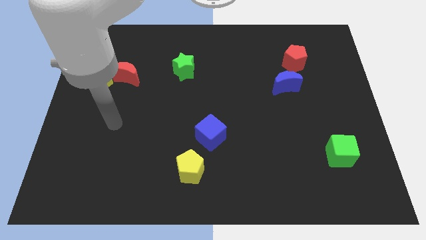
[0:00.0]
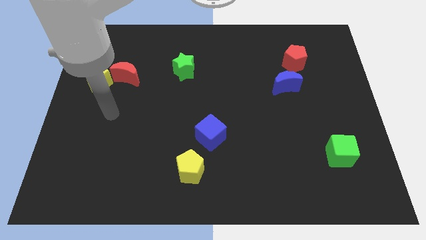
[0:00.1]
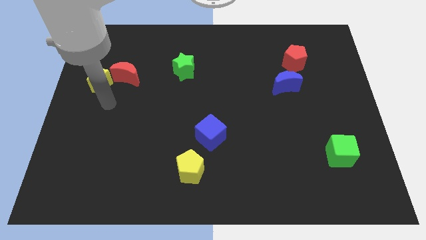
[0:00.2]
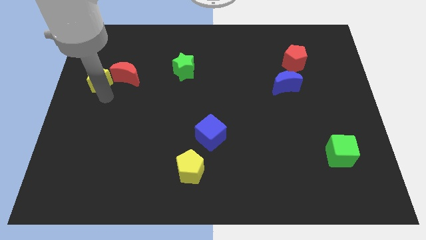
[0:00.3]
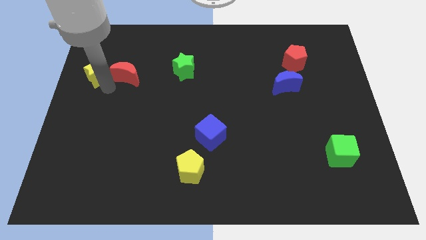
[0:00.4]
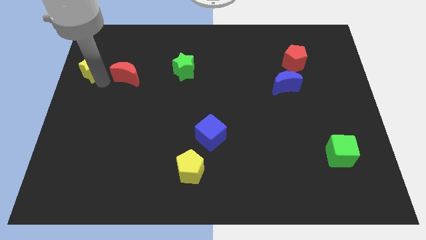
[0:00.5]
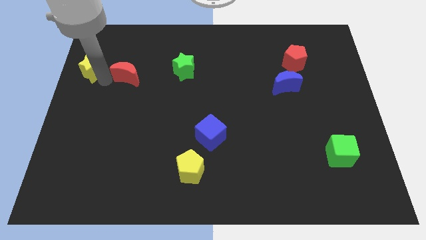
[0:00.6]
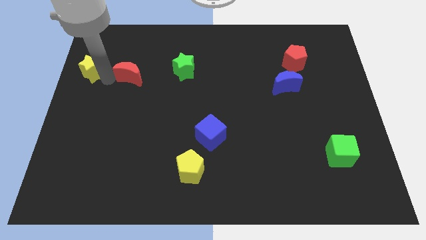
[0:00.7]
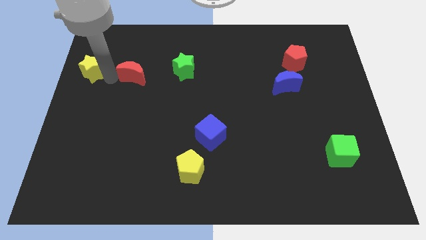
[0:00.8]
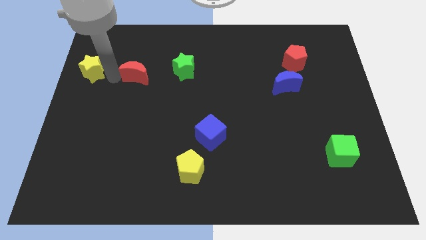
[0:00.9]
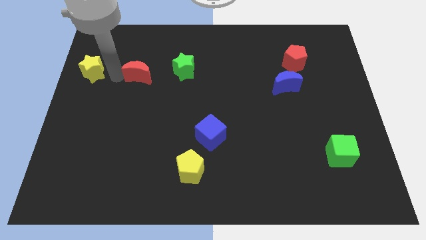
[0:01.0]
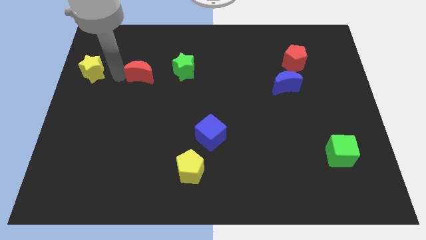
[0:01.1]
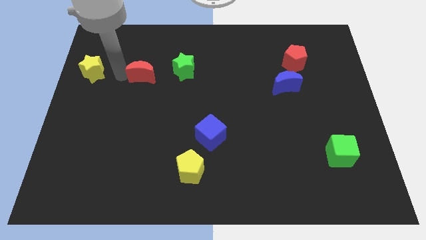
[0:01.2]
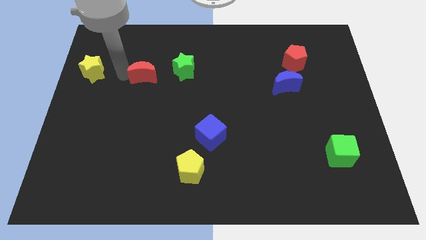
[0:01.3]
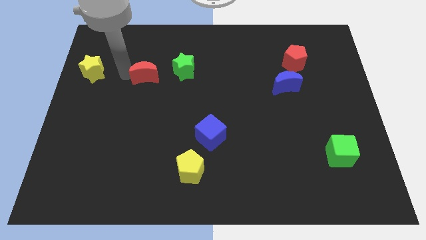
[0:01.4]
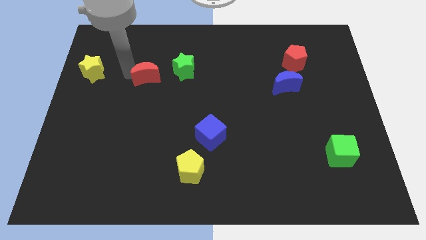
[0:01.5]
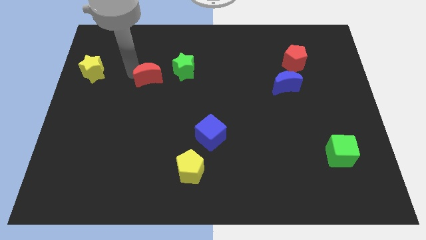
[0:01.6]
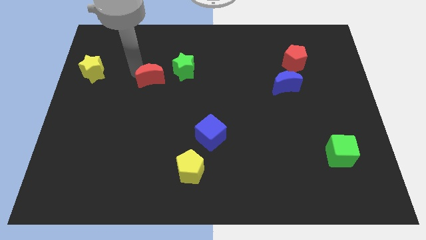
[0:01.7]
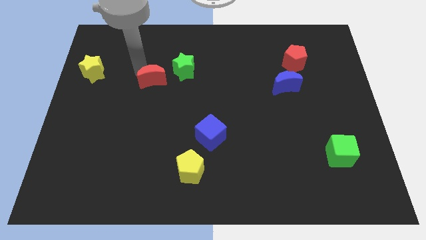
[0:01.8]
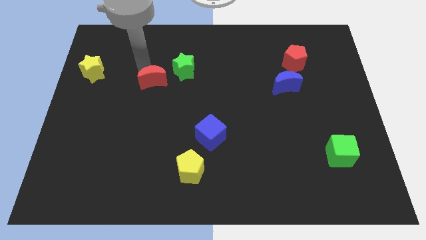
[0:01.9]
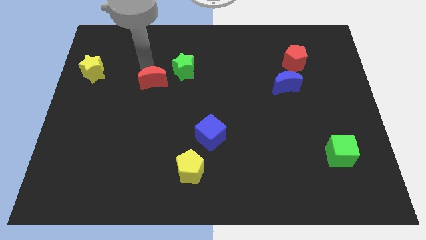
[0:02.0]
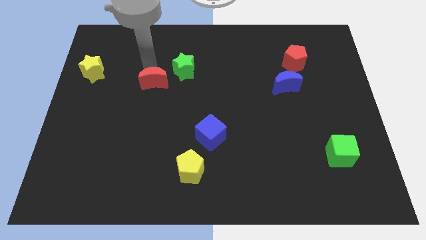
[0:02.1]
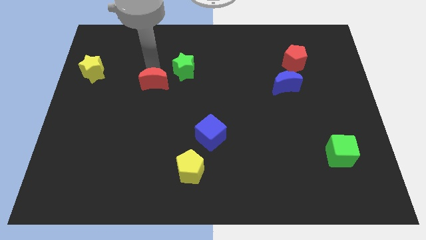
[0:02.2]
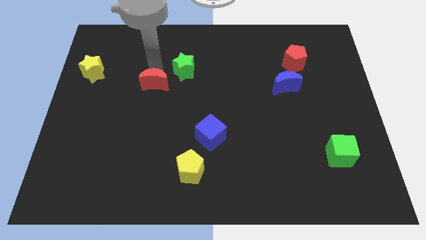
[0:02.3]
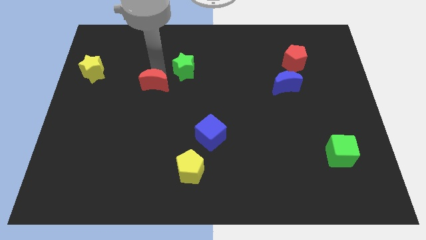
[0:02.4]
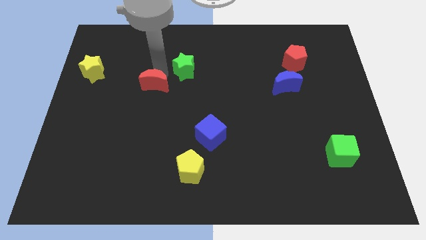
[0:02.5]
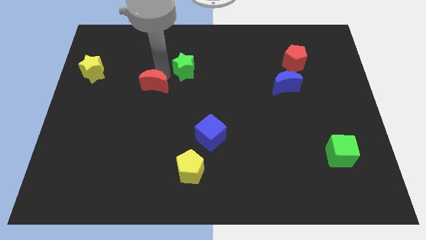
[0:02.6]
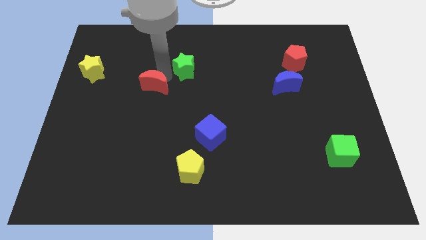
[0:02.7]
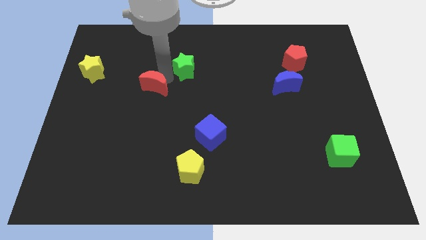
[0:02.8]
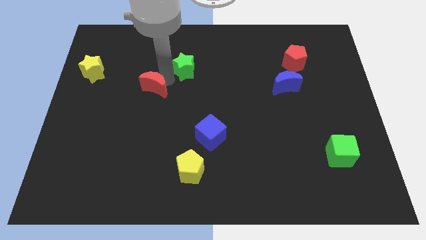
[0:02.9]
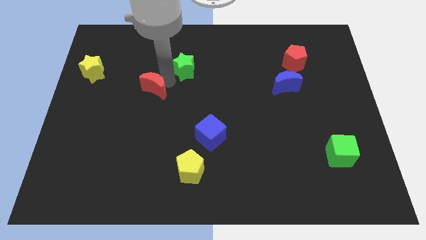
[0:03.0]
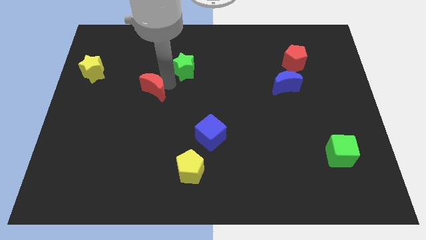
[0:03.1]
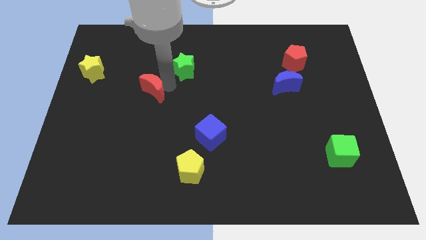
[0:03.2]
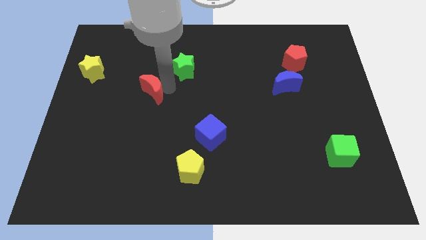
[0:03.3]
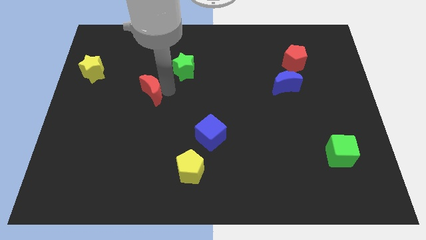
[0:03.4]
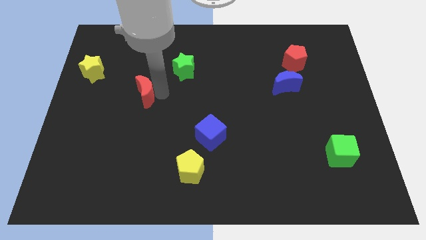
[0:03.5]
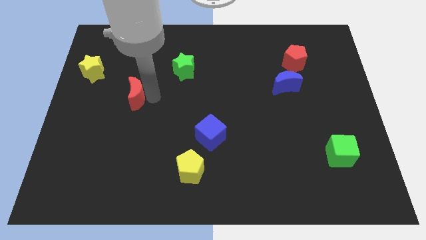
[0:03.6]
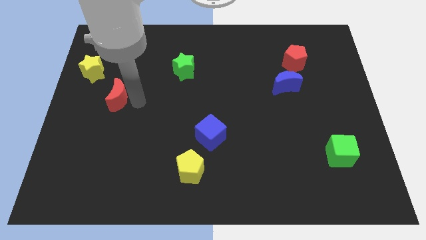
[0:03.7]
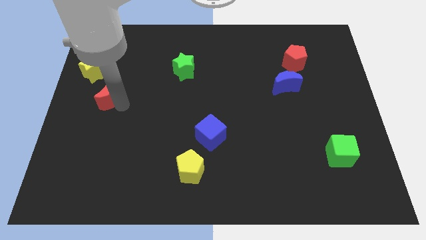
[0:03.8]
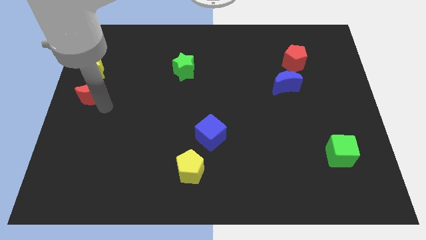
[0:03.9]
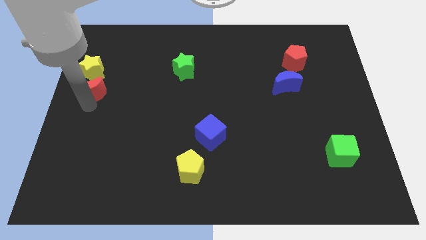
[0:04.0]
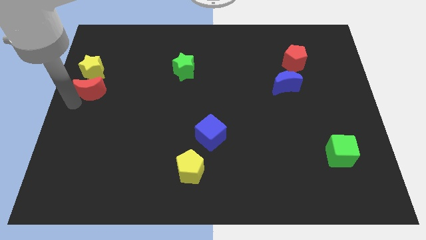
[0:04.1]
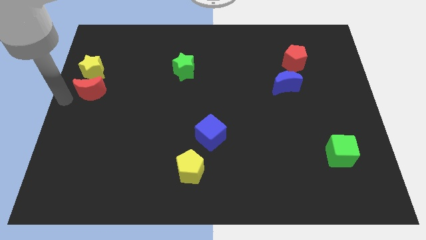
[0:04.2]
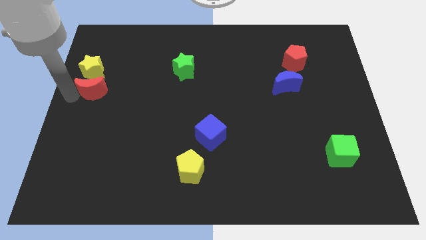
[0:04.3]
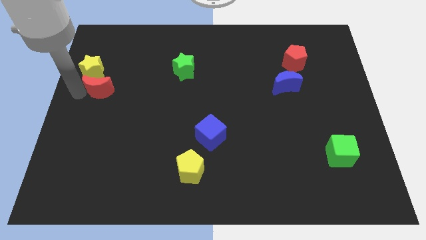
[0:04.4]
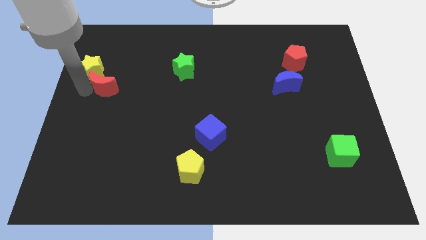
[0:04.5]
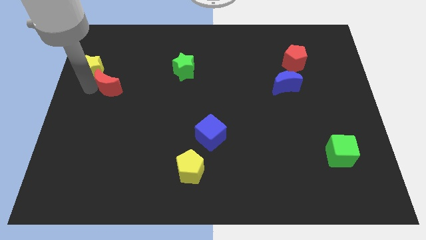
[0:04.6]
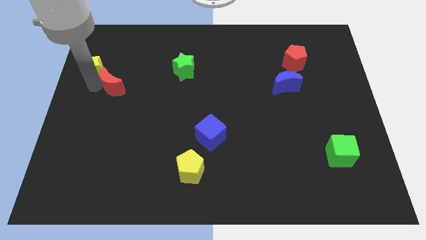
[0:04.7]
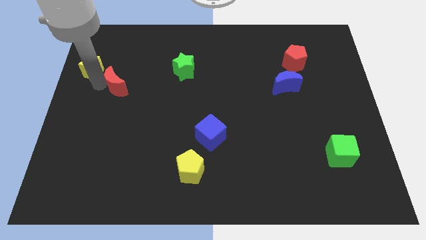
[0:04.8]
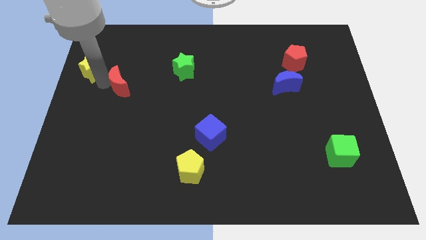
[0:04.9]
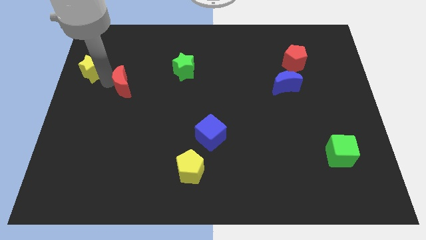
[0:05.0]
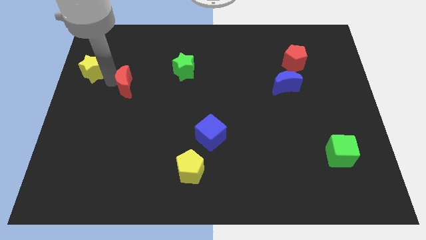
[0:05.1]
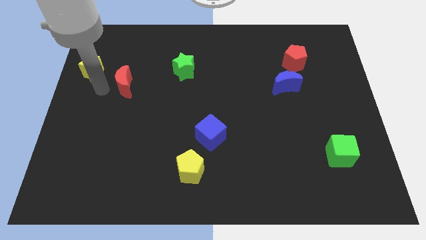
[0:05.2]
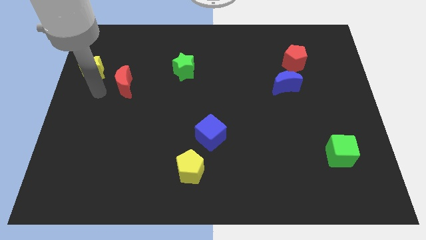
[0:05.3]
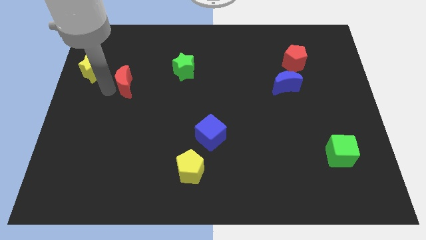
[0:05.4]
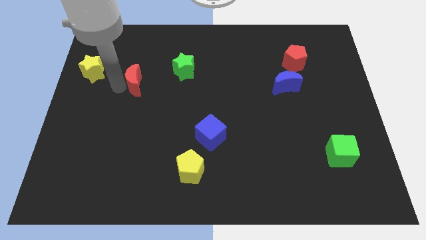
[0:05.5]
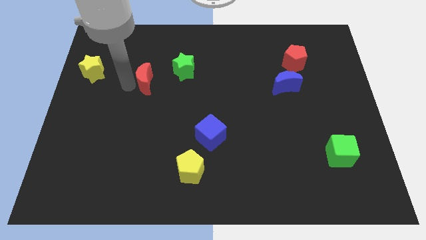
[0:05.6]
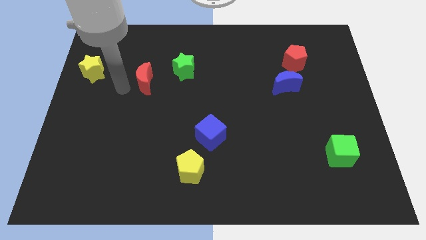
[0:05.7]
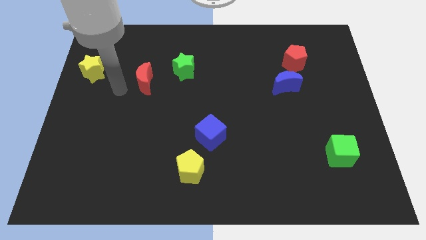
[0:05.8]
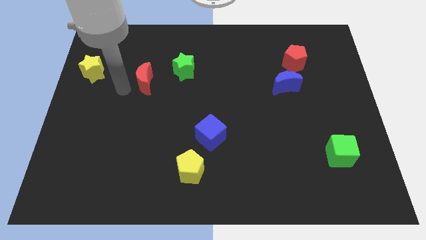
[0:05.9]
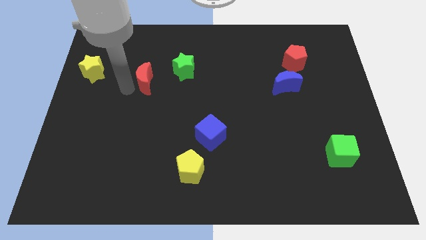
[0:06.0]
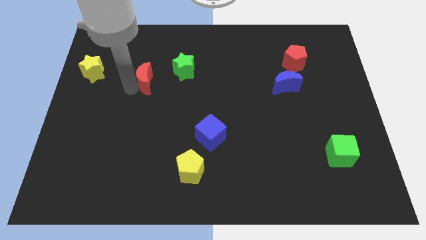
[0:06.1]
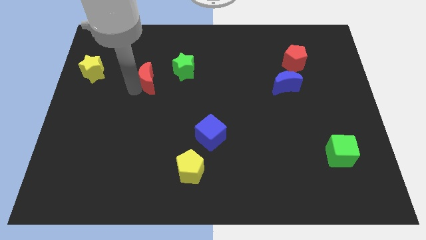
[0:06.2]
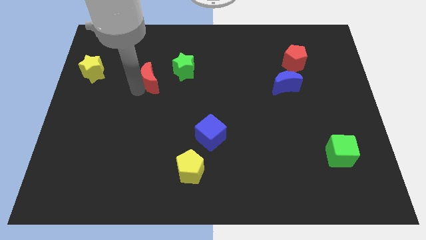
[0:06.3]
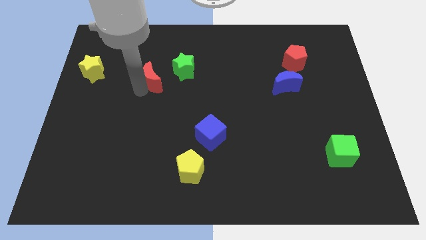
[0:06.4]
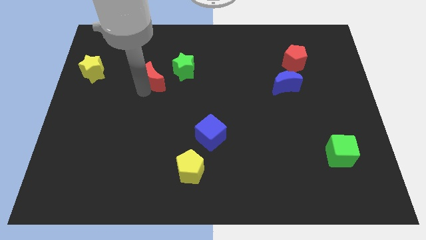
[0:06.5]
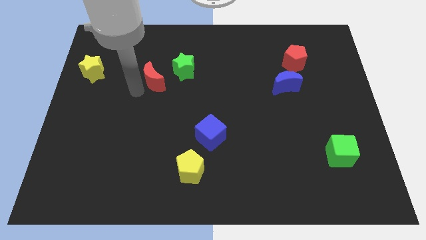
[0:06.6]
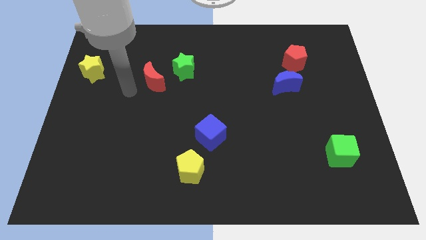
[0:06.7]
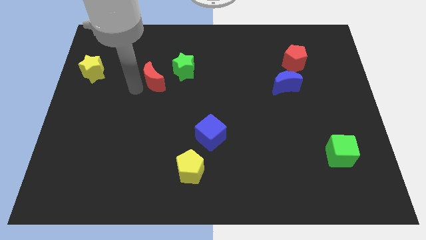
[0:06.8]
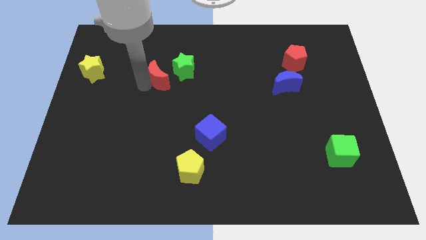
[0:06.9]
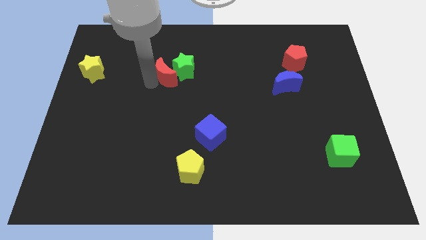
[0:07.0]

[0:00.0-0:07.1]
put the red moon close to the green star
